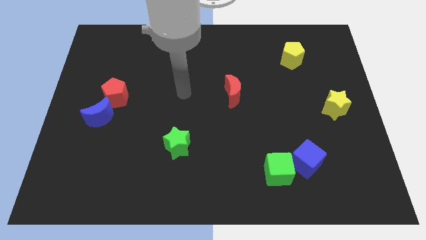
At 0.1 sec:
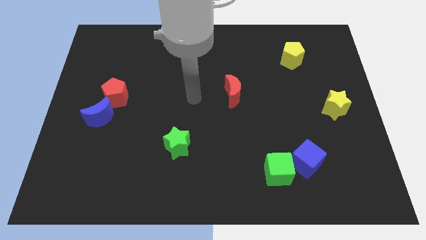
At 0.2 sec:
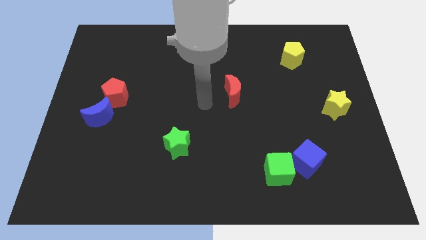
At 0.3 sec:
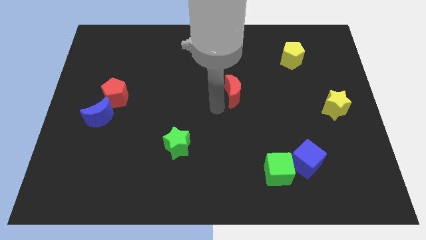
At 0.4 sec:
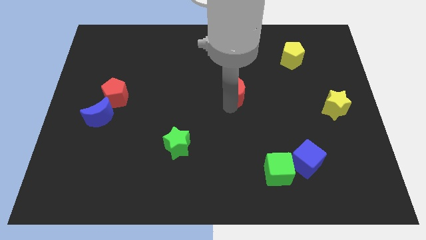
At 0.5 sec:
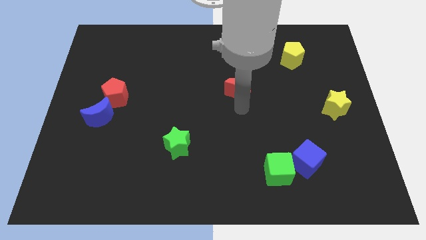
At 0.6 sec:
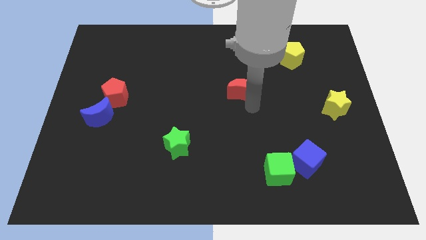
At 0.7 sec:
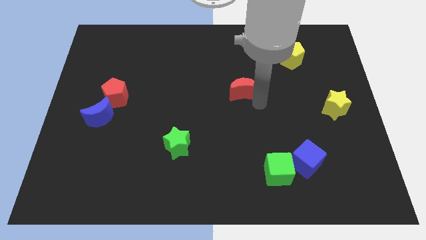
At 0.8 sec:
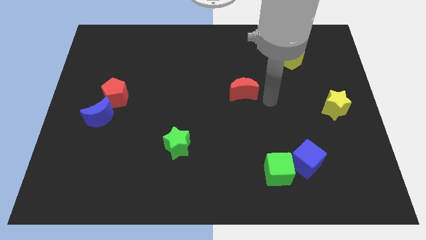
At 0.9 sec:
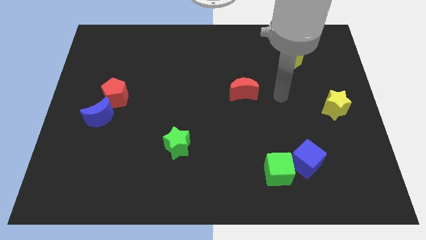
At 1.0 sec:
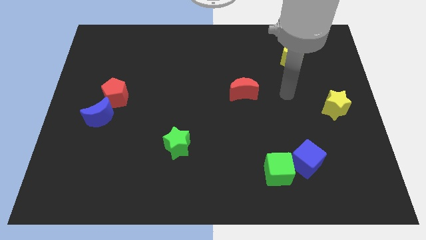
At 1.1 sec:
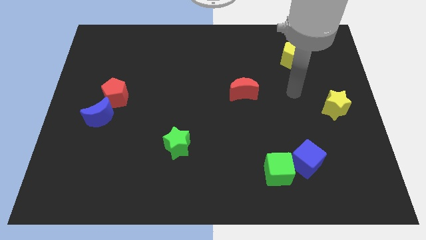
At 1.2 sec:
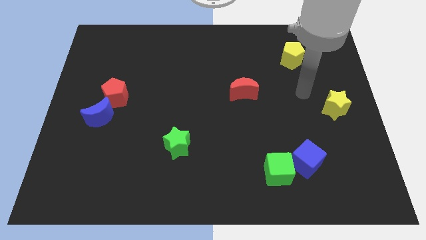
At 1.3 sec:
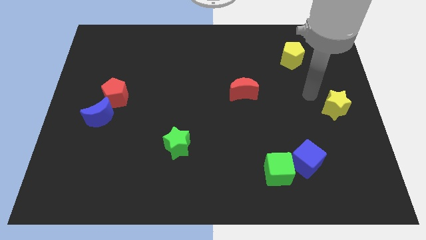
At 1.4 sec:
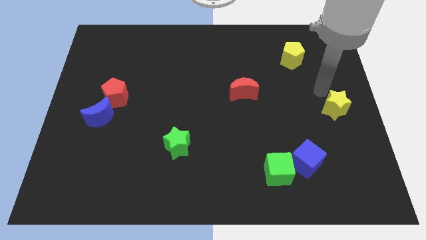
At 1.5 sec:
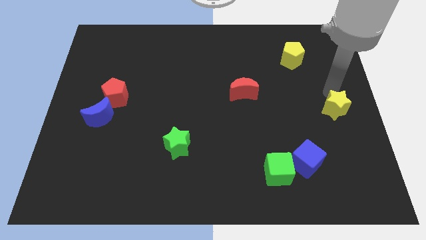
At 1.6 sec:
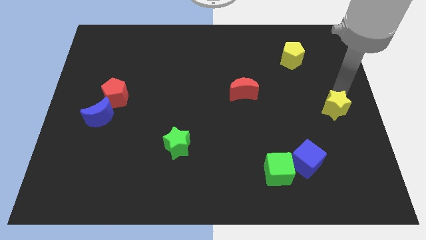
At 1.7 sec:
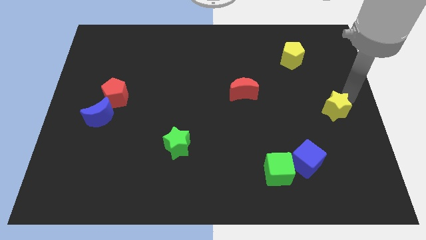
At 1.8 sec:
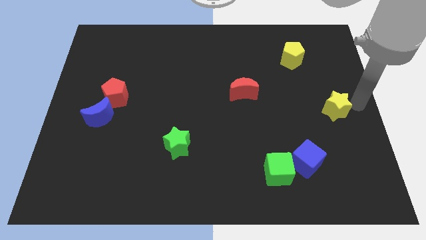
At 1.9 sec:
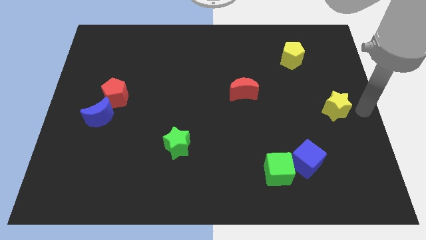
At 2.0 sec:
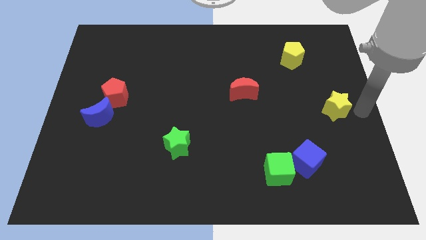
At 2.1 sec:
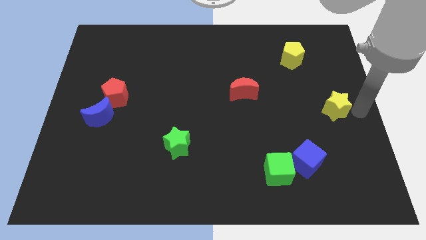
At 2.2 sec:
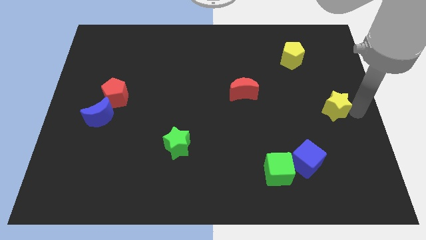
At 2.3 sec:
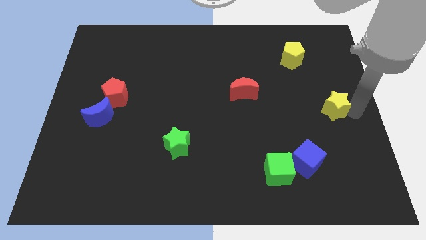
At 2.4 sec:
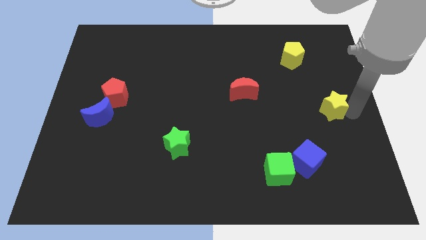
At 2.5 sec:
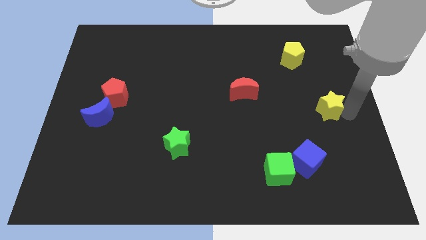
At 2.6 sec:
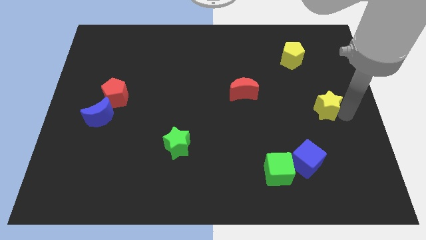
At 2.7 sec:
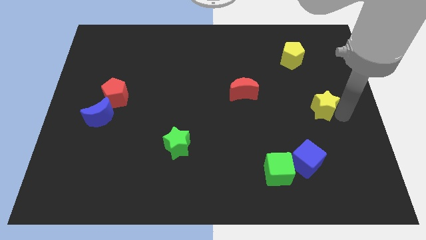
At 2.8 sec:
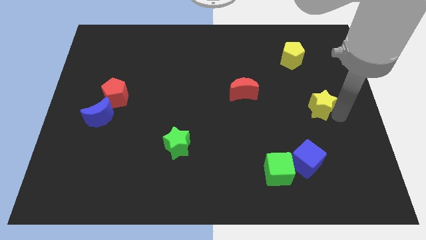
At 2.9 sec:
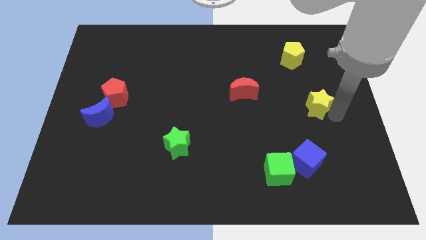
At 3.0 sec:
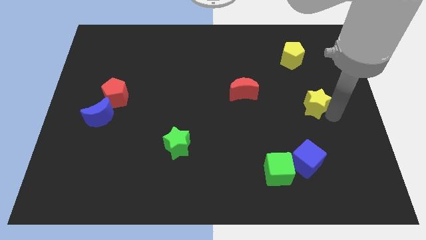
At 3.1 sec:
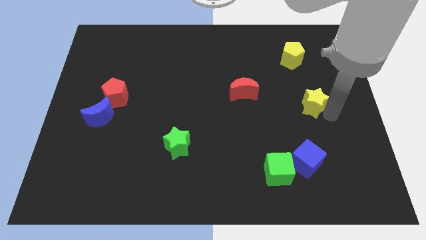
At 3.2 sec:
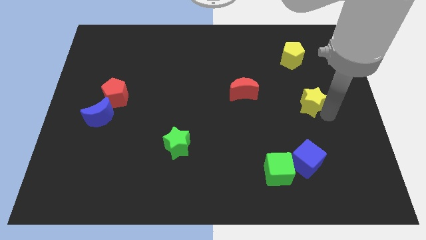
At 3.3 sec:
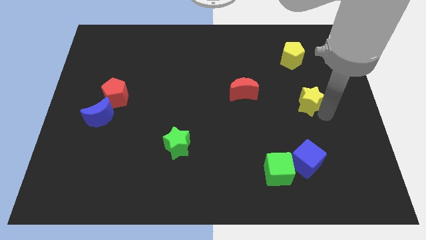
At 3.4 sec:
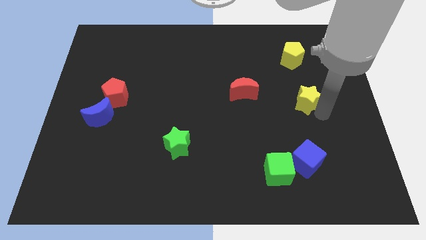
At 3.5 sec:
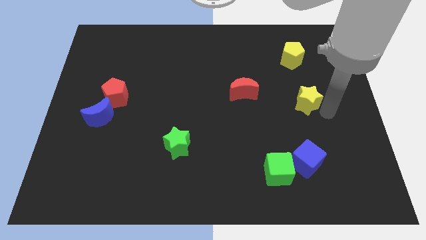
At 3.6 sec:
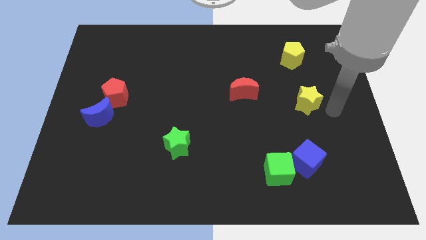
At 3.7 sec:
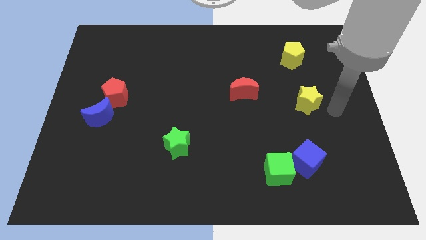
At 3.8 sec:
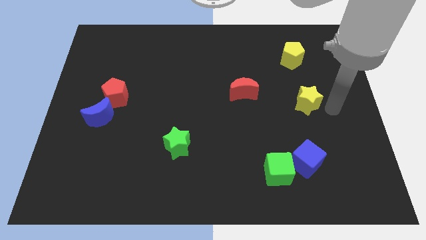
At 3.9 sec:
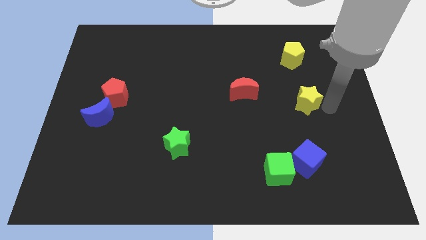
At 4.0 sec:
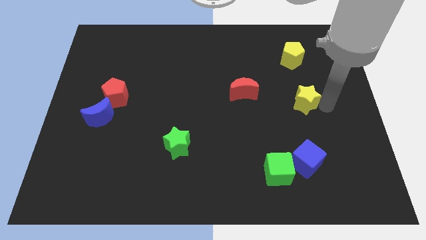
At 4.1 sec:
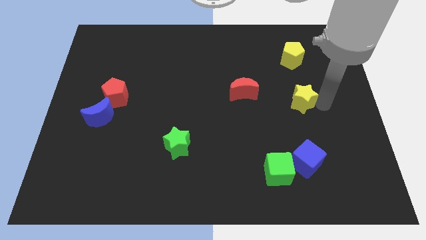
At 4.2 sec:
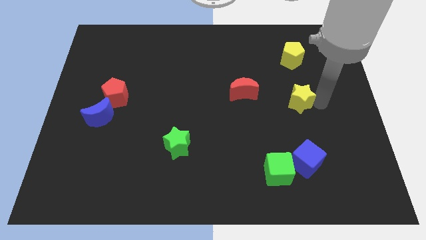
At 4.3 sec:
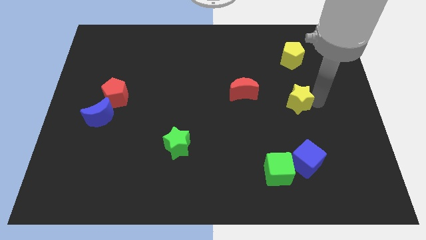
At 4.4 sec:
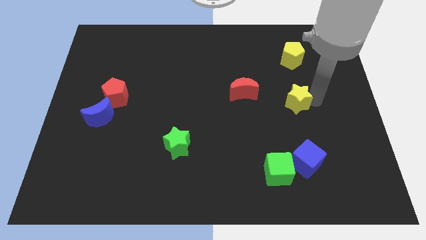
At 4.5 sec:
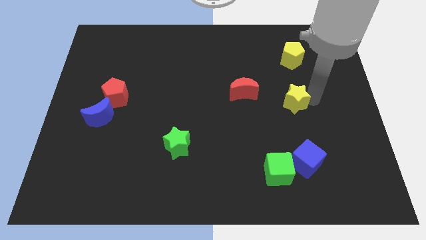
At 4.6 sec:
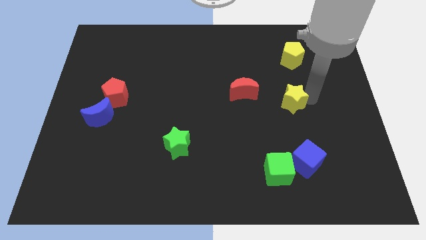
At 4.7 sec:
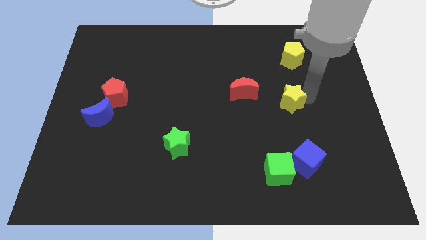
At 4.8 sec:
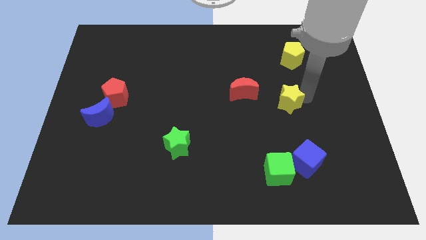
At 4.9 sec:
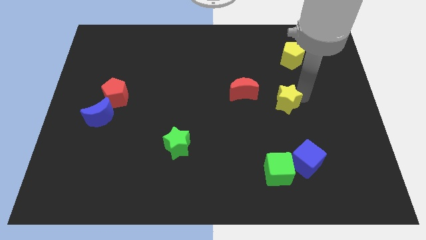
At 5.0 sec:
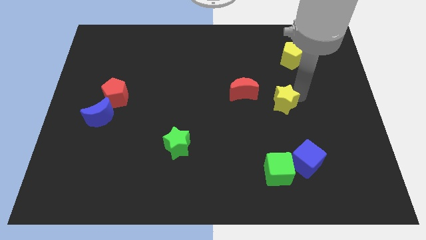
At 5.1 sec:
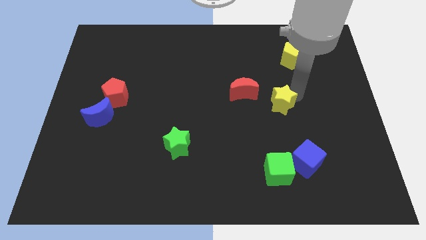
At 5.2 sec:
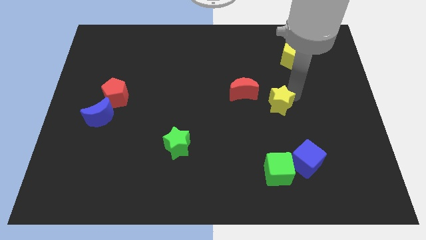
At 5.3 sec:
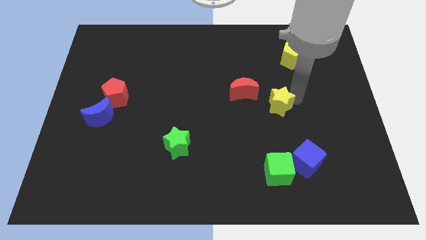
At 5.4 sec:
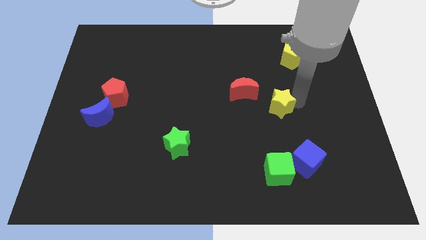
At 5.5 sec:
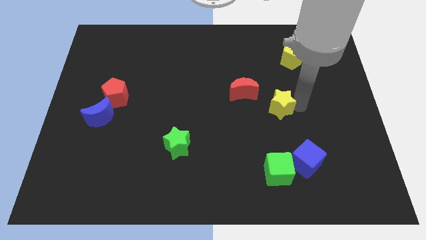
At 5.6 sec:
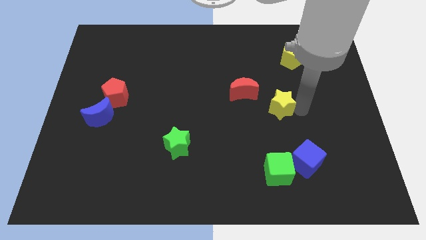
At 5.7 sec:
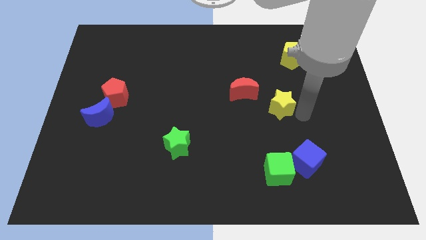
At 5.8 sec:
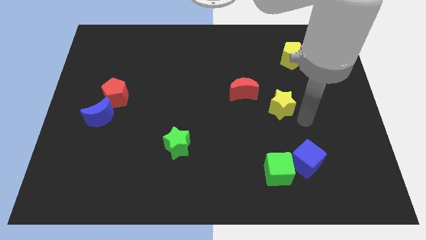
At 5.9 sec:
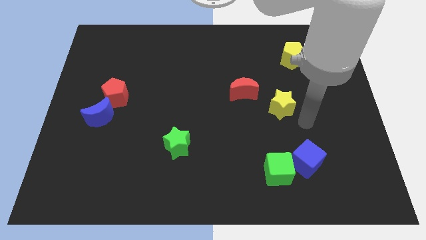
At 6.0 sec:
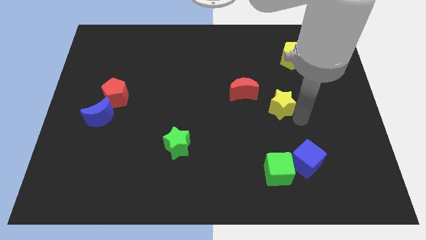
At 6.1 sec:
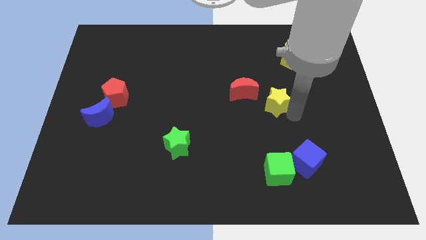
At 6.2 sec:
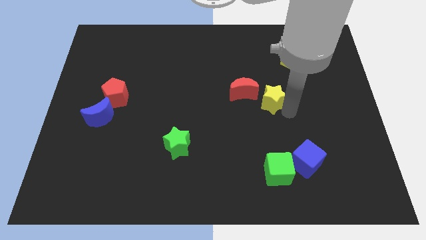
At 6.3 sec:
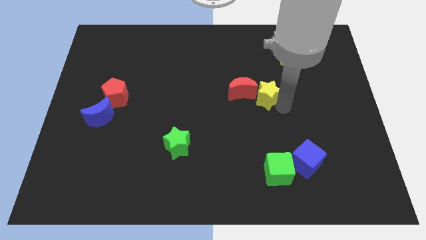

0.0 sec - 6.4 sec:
move the yellow star to the red moon
